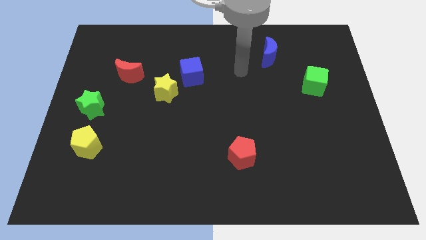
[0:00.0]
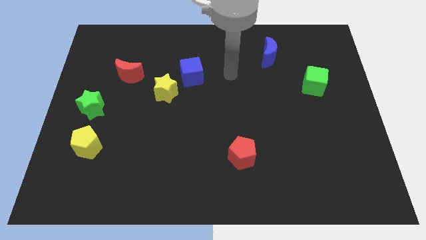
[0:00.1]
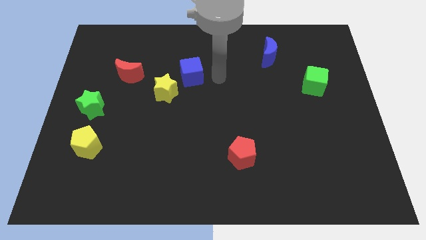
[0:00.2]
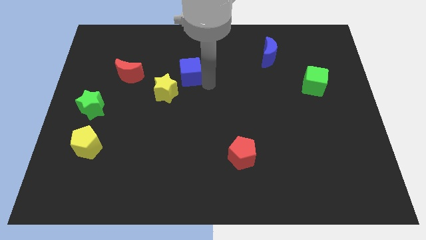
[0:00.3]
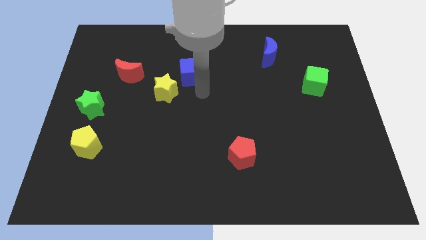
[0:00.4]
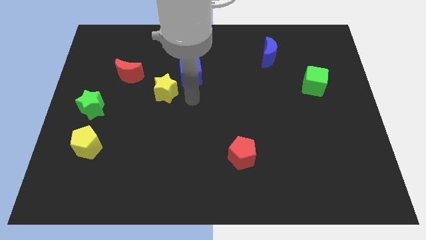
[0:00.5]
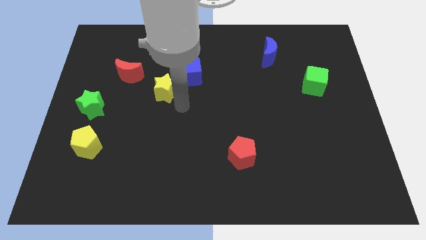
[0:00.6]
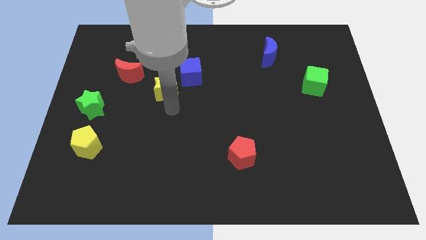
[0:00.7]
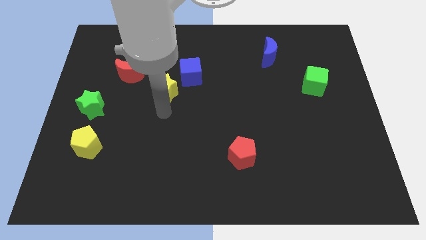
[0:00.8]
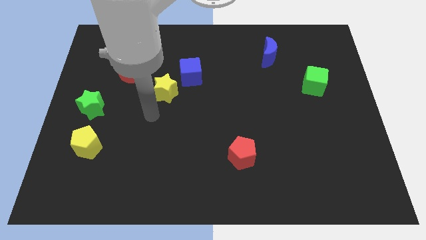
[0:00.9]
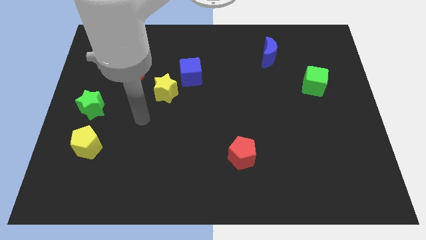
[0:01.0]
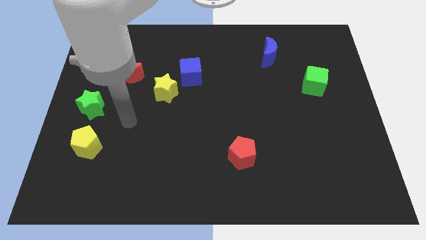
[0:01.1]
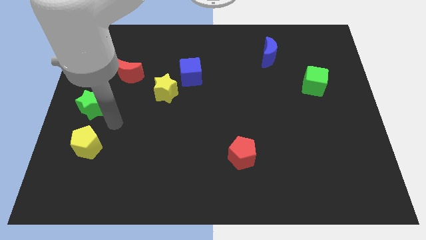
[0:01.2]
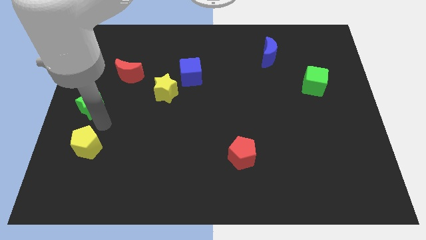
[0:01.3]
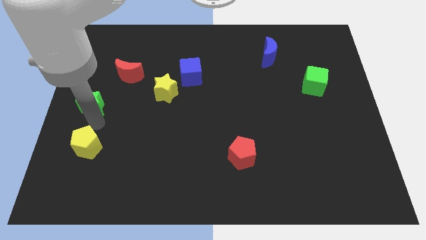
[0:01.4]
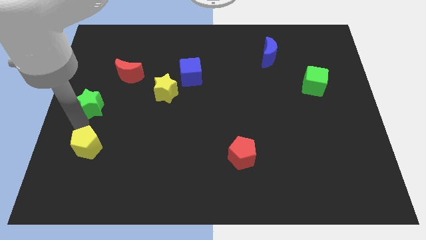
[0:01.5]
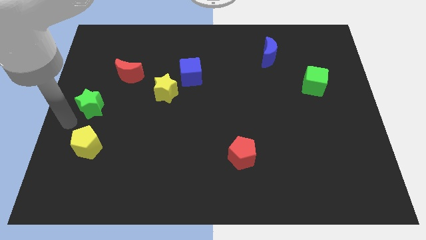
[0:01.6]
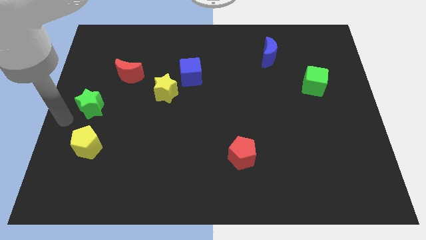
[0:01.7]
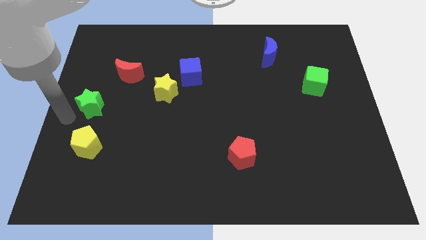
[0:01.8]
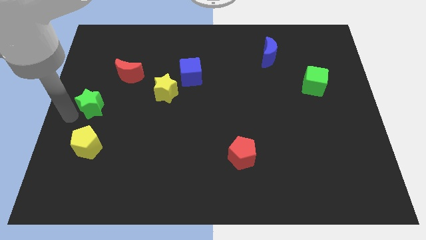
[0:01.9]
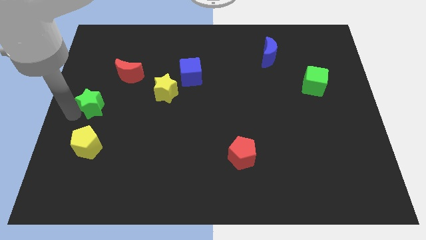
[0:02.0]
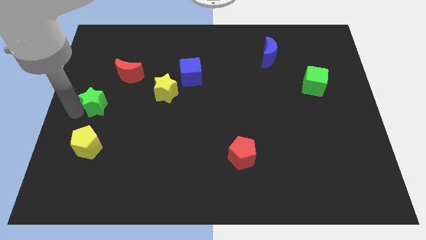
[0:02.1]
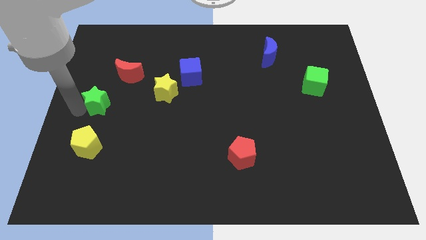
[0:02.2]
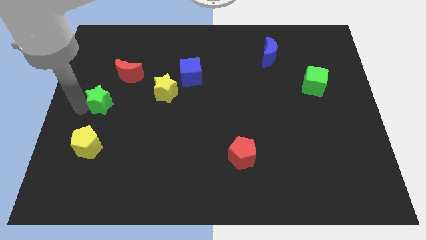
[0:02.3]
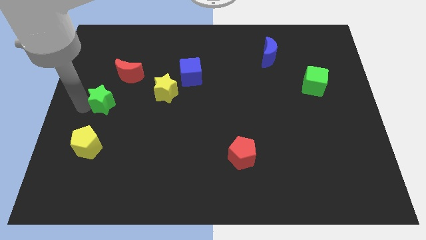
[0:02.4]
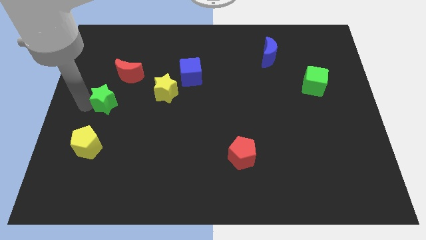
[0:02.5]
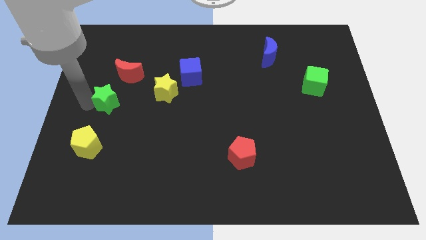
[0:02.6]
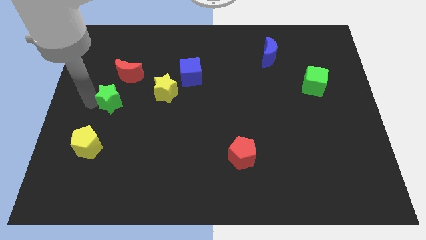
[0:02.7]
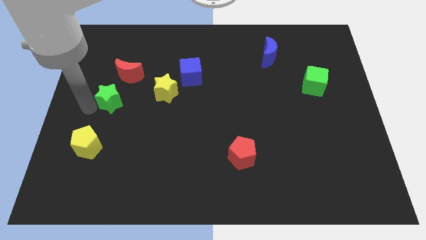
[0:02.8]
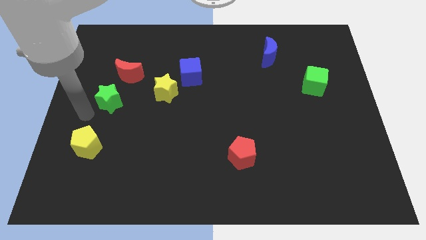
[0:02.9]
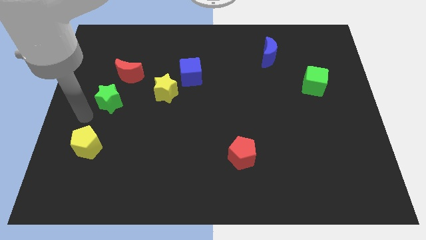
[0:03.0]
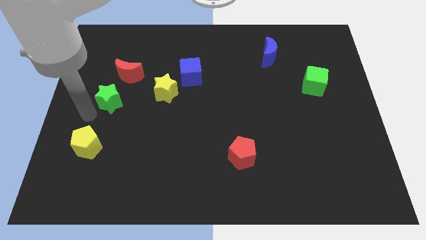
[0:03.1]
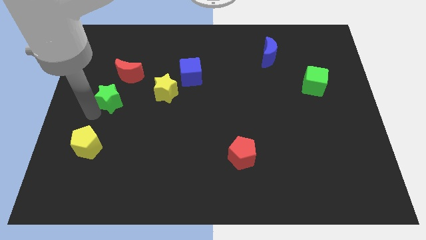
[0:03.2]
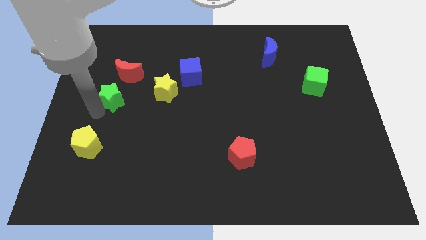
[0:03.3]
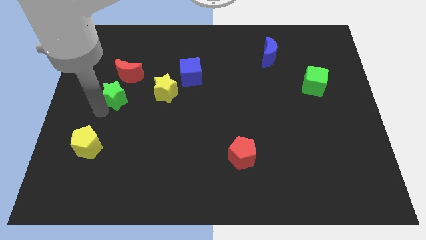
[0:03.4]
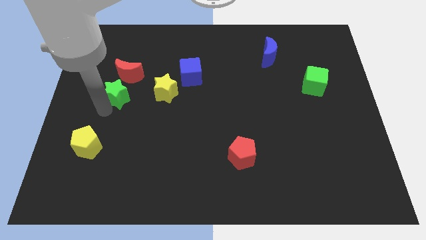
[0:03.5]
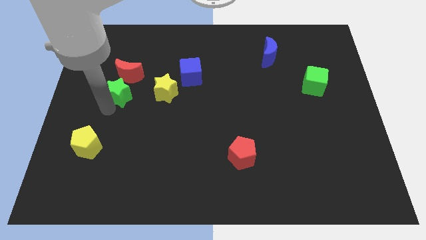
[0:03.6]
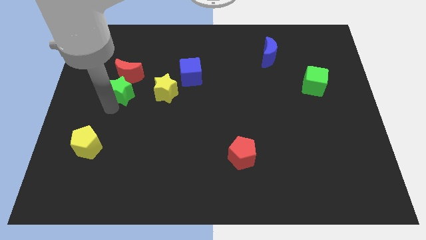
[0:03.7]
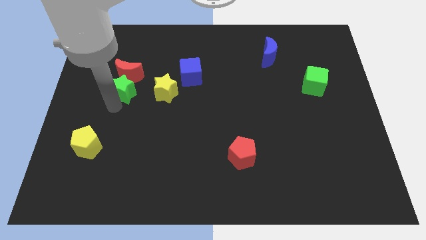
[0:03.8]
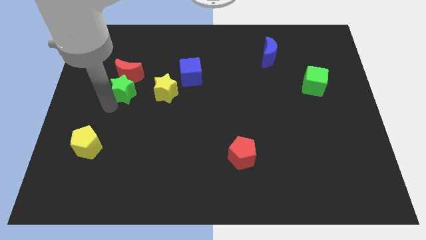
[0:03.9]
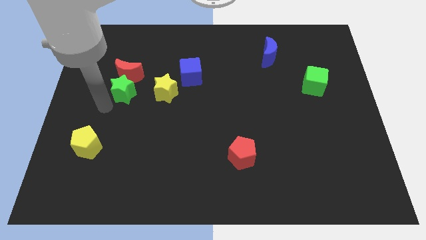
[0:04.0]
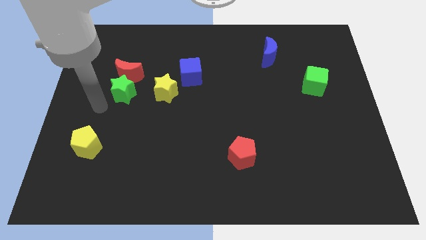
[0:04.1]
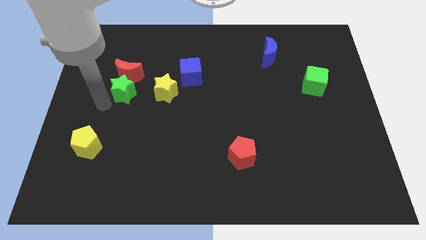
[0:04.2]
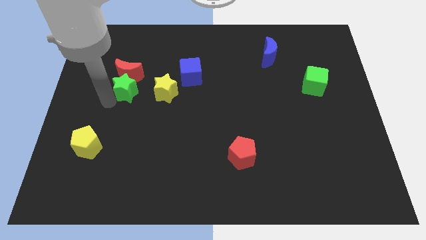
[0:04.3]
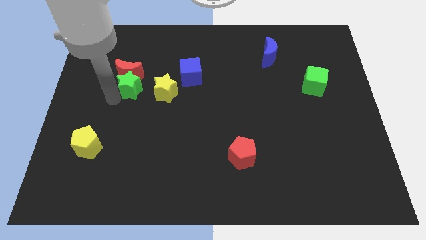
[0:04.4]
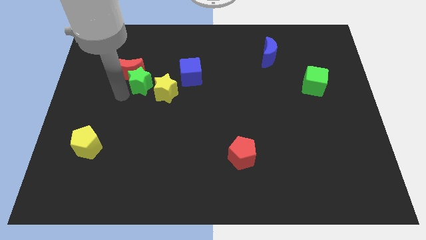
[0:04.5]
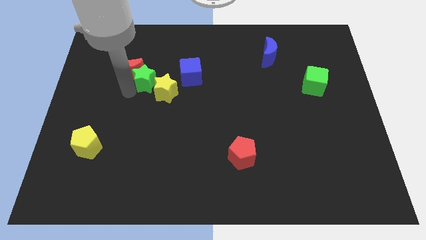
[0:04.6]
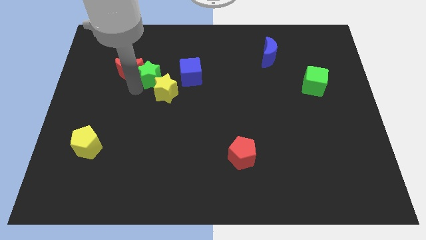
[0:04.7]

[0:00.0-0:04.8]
move the green star to the top side of the yellow star

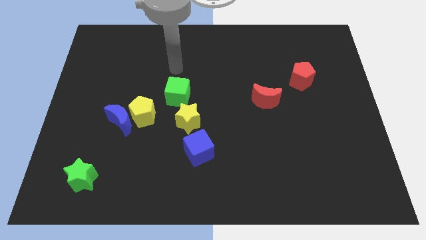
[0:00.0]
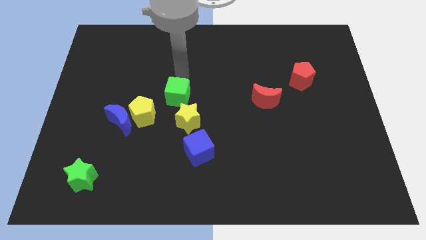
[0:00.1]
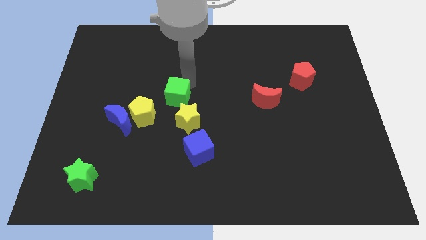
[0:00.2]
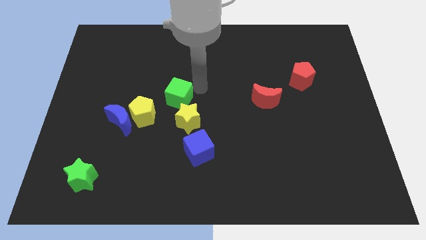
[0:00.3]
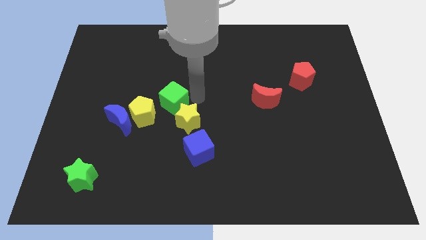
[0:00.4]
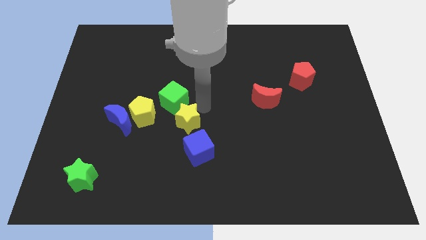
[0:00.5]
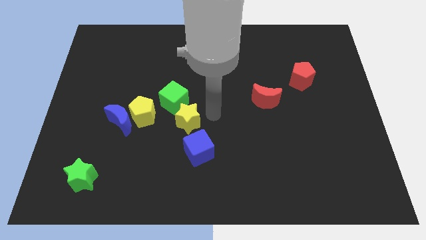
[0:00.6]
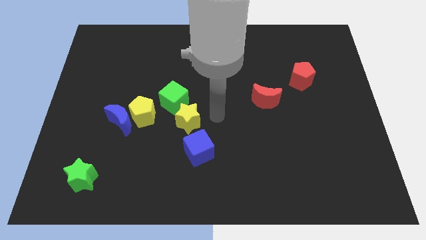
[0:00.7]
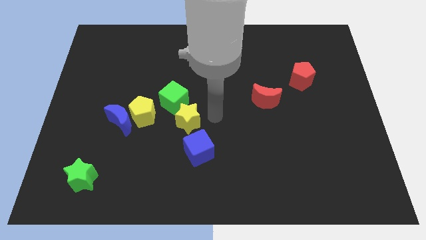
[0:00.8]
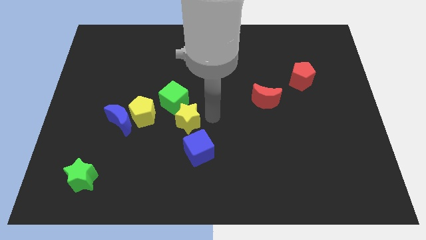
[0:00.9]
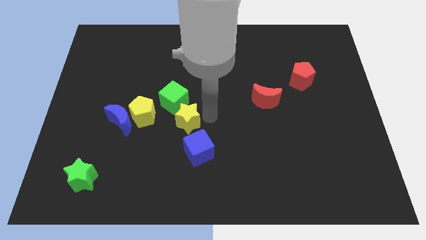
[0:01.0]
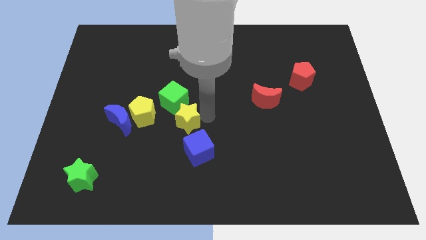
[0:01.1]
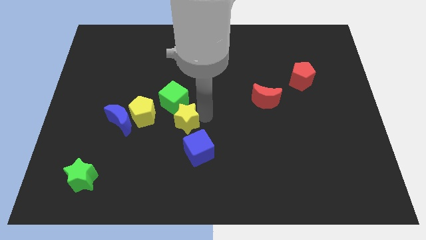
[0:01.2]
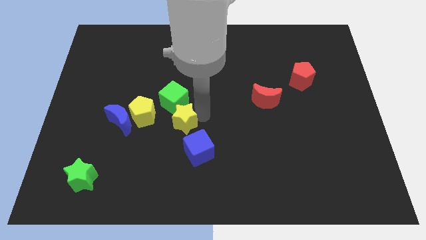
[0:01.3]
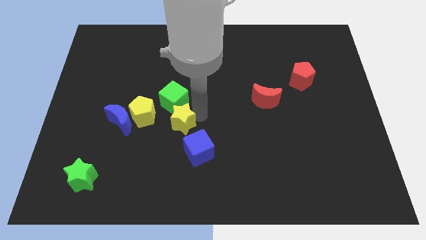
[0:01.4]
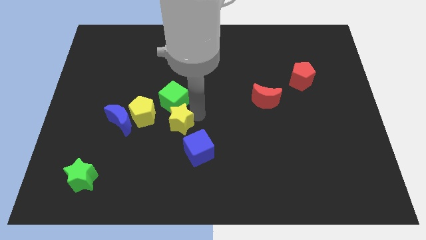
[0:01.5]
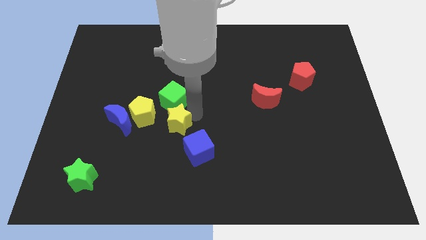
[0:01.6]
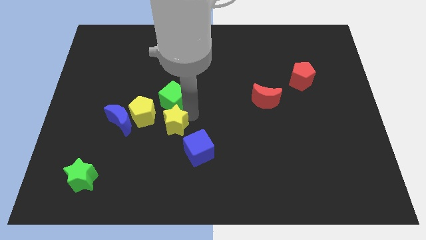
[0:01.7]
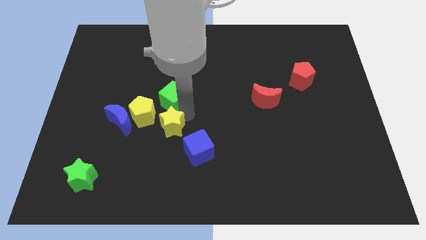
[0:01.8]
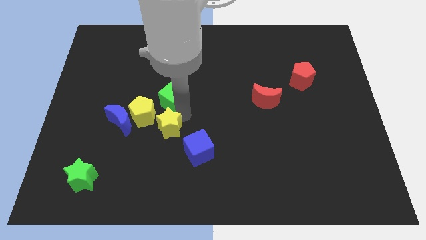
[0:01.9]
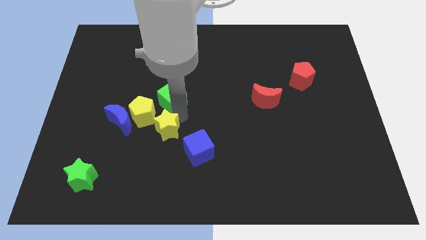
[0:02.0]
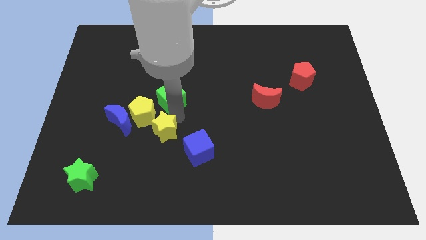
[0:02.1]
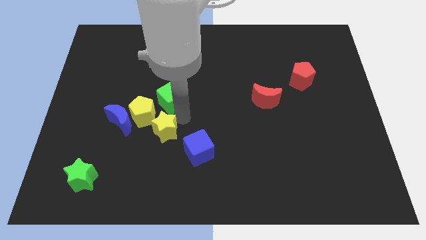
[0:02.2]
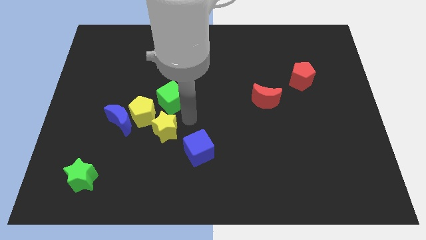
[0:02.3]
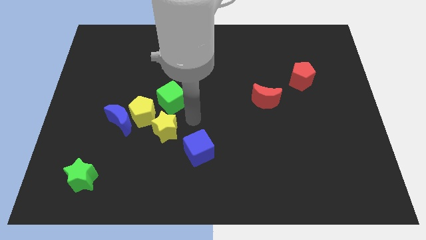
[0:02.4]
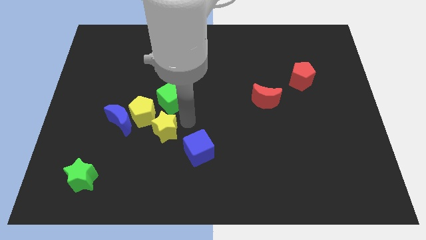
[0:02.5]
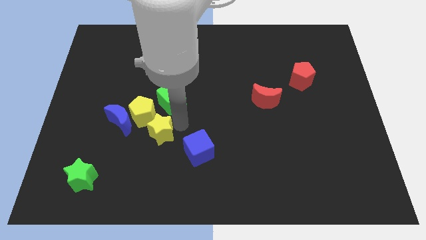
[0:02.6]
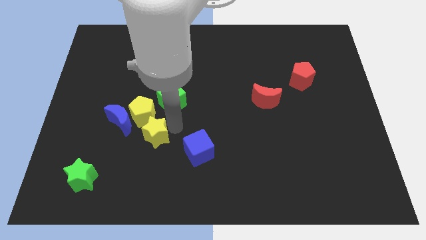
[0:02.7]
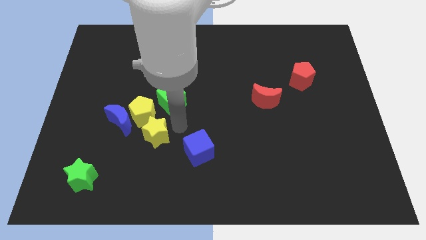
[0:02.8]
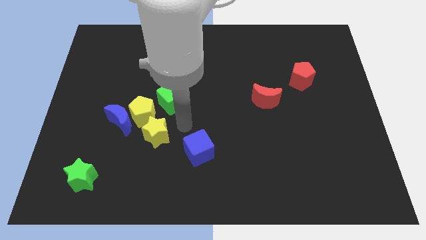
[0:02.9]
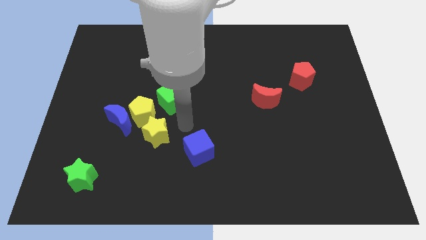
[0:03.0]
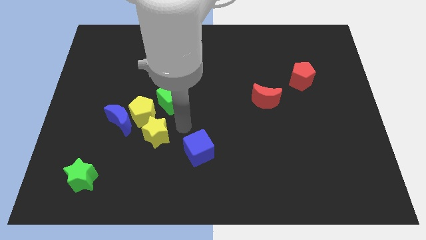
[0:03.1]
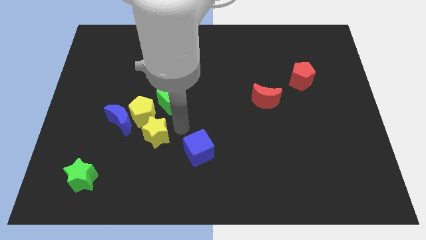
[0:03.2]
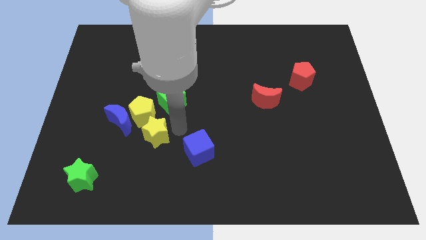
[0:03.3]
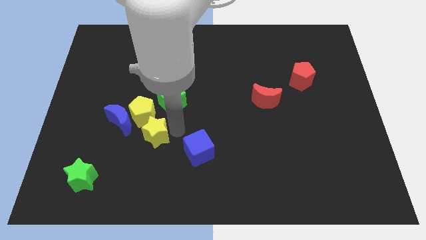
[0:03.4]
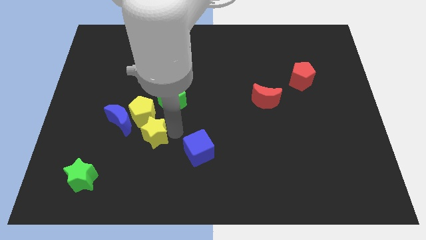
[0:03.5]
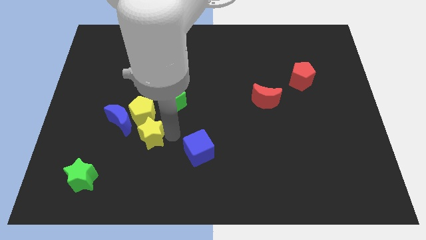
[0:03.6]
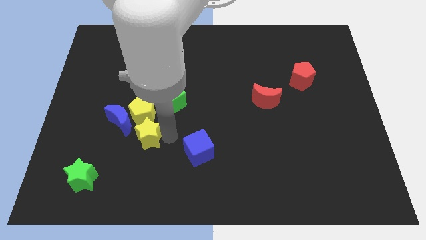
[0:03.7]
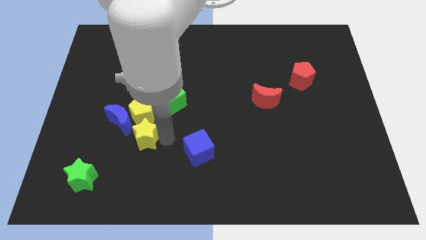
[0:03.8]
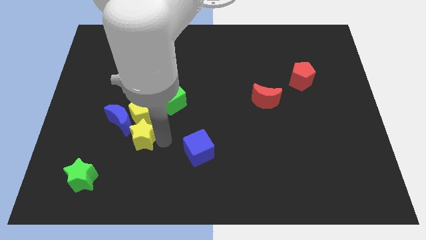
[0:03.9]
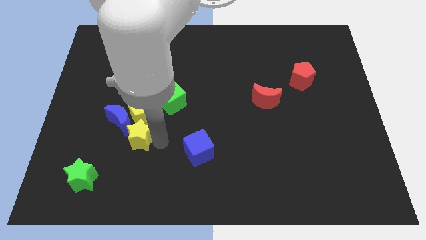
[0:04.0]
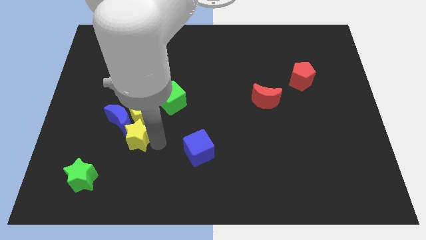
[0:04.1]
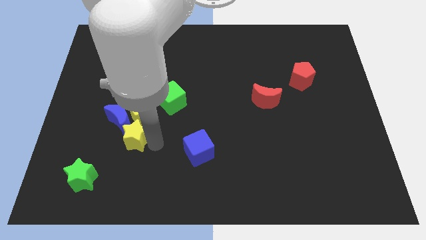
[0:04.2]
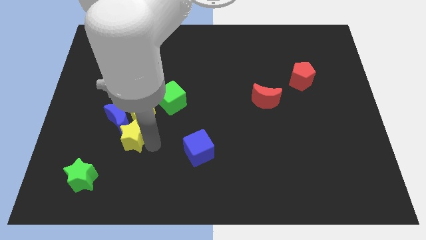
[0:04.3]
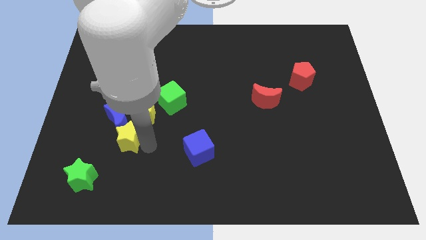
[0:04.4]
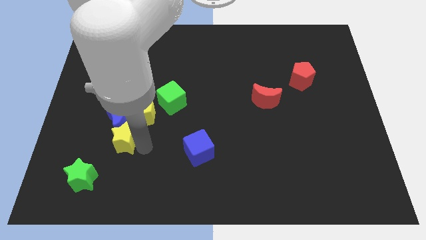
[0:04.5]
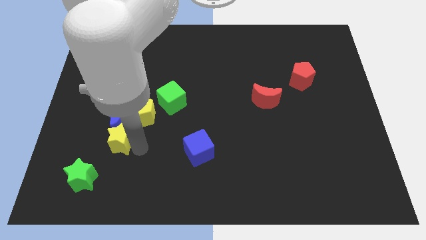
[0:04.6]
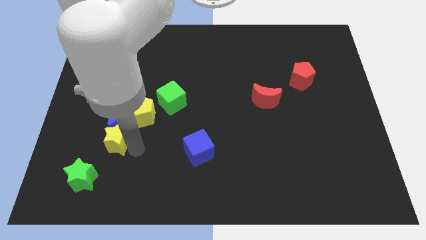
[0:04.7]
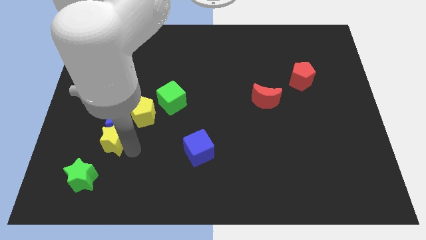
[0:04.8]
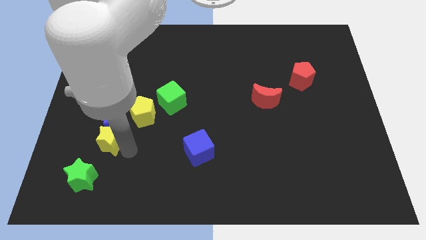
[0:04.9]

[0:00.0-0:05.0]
move the yellow star above the green star
